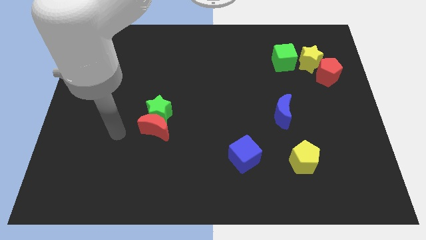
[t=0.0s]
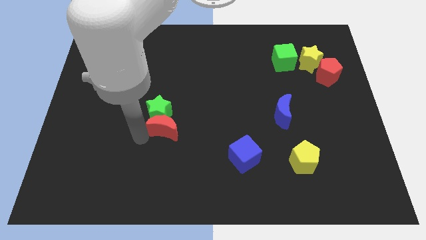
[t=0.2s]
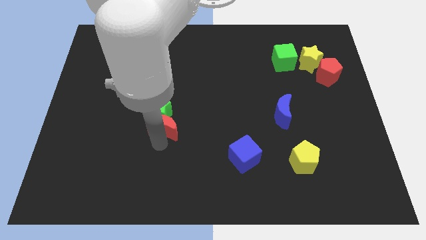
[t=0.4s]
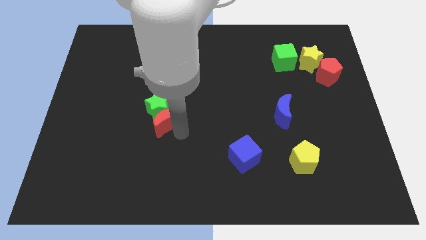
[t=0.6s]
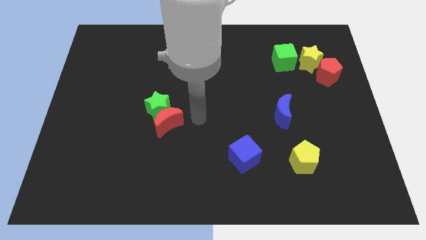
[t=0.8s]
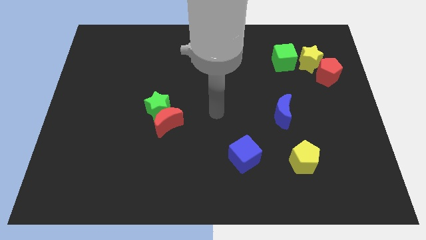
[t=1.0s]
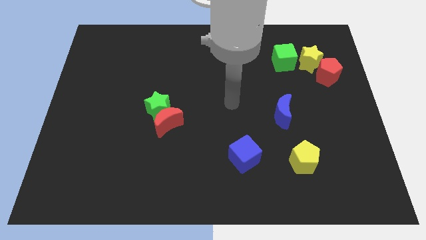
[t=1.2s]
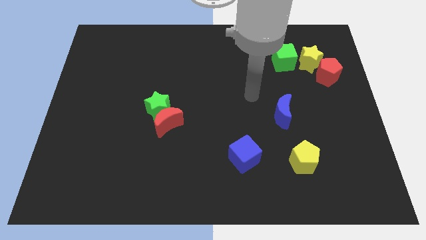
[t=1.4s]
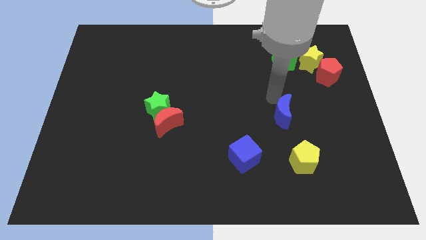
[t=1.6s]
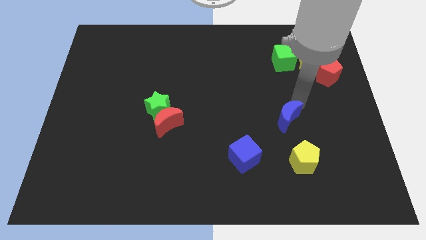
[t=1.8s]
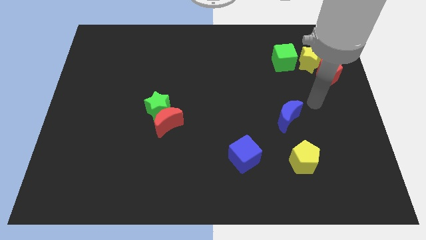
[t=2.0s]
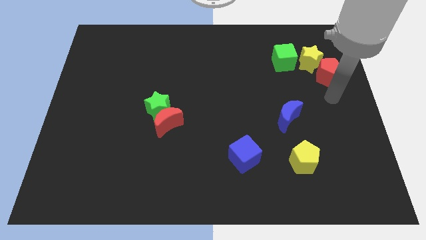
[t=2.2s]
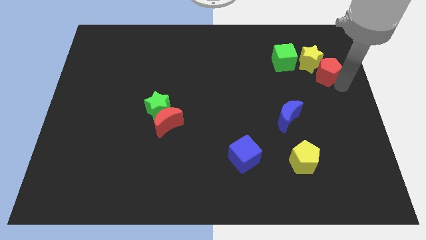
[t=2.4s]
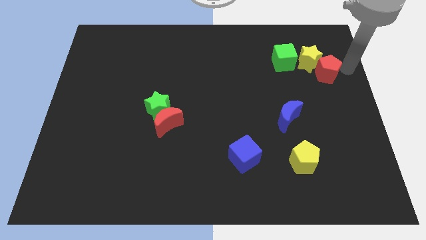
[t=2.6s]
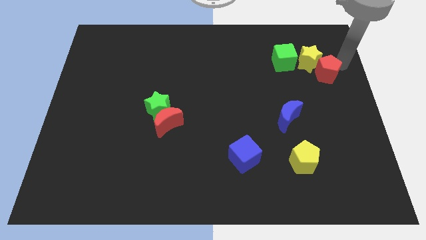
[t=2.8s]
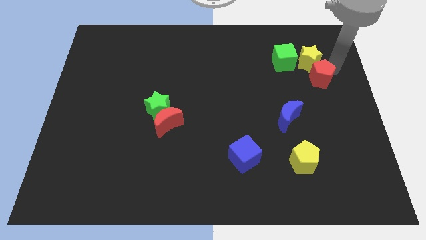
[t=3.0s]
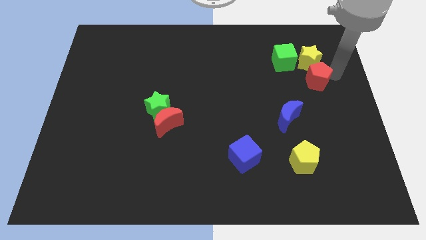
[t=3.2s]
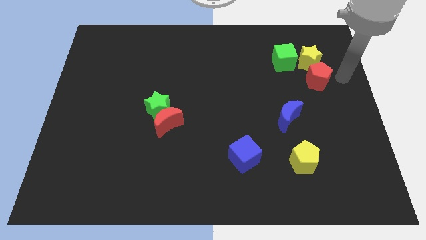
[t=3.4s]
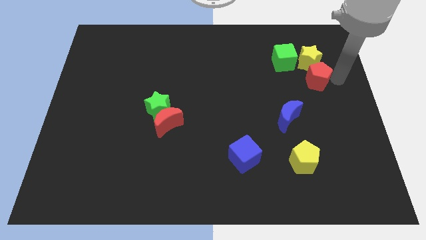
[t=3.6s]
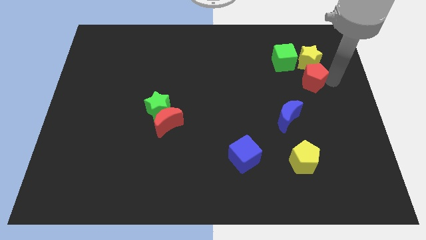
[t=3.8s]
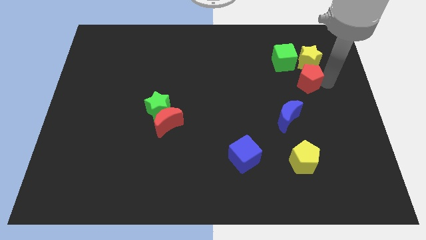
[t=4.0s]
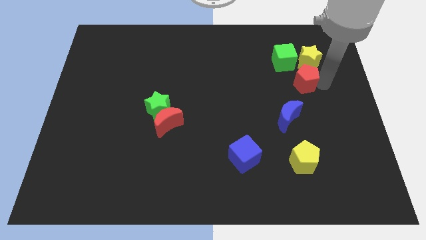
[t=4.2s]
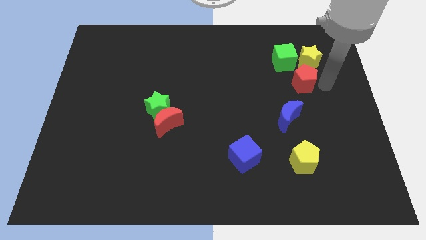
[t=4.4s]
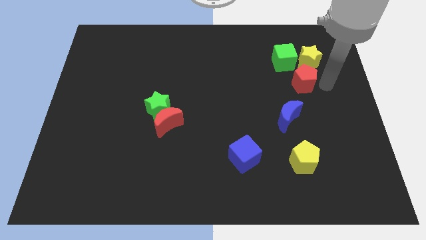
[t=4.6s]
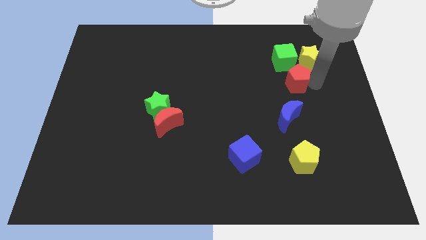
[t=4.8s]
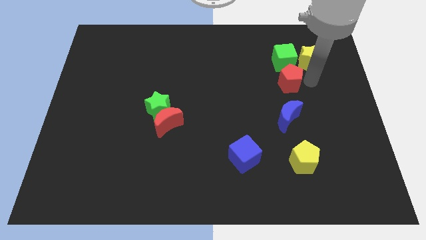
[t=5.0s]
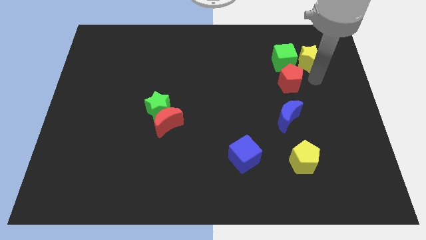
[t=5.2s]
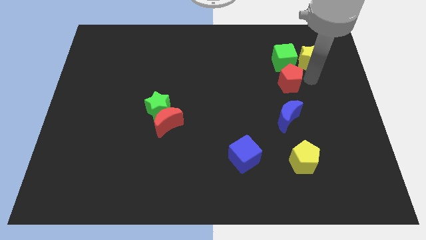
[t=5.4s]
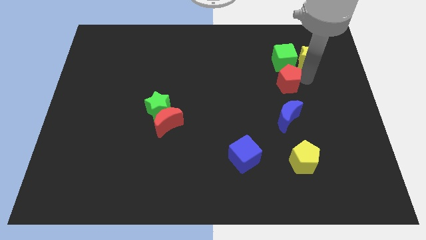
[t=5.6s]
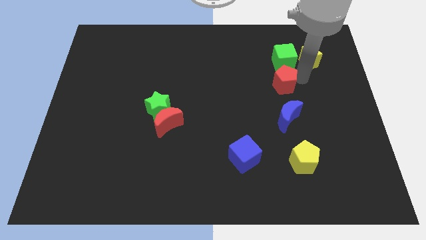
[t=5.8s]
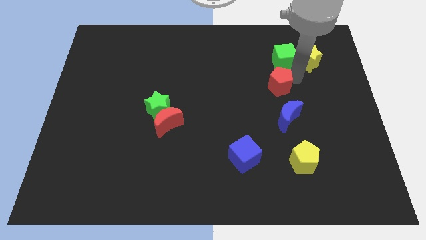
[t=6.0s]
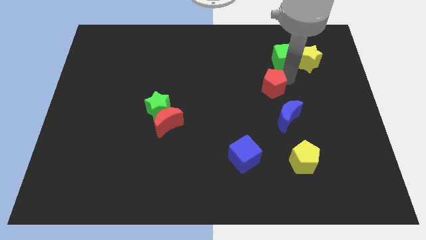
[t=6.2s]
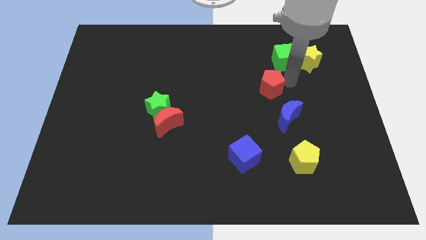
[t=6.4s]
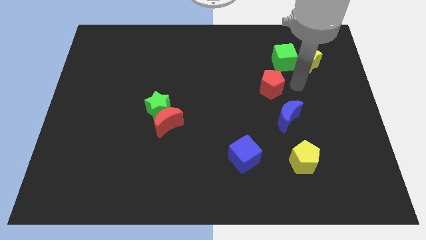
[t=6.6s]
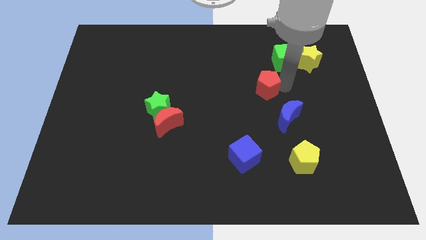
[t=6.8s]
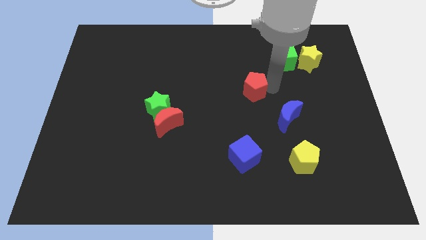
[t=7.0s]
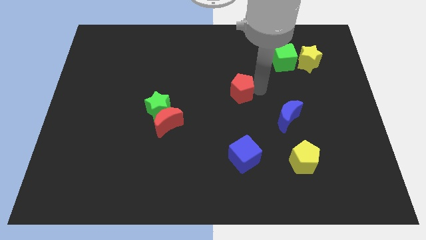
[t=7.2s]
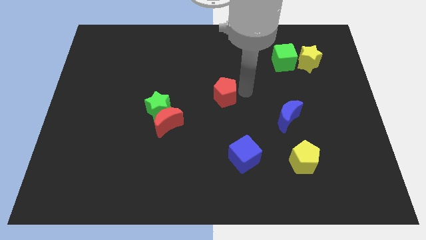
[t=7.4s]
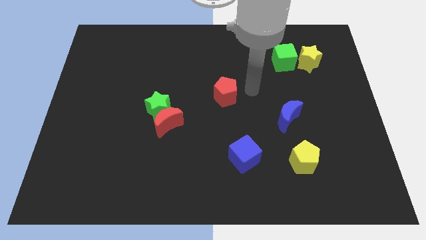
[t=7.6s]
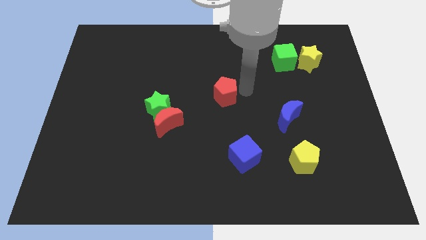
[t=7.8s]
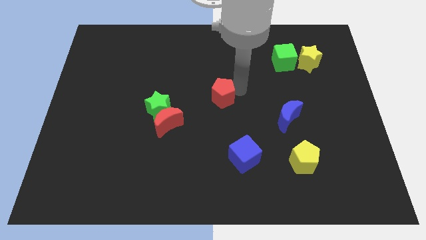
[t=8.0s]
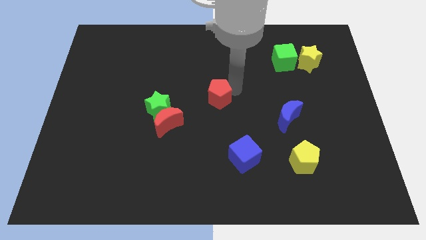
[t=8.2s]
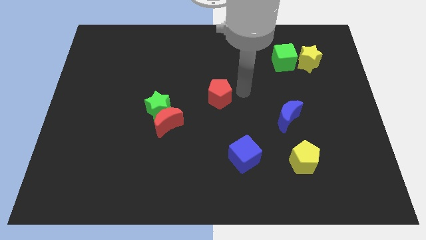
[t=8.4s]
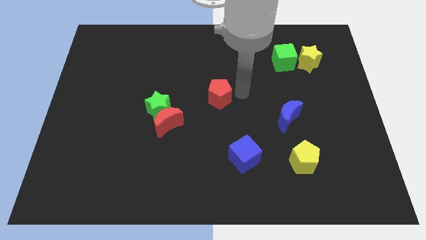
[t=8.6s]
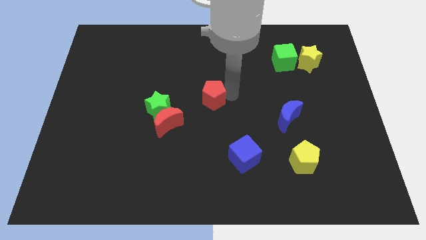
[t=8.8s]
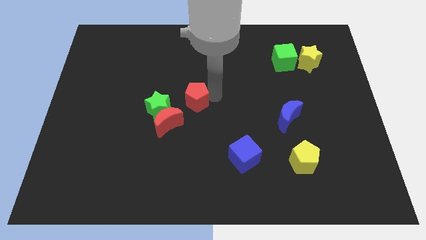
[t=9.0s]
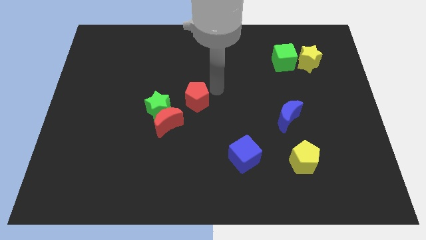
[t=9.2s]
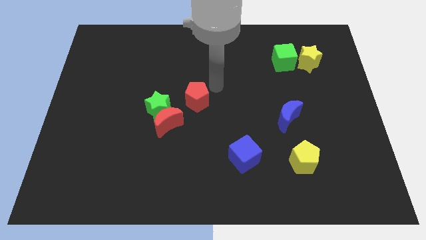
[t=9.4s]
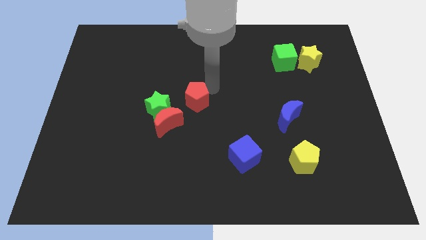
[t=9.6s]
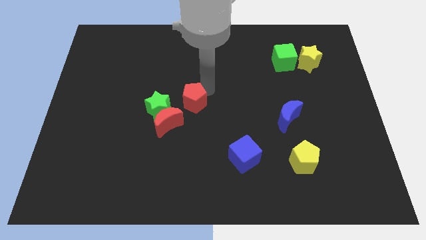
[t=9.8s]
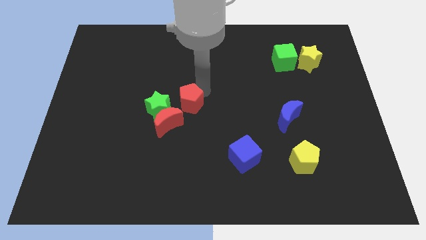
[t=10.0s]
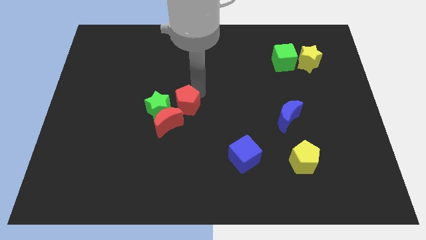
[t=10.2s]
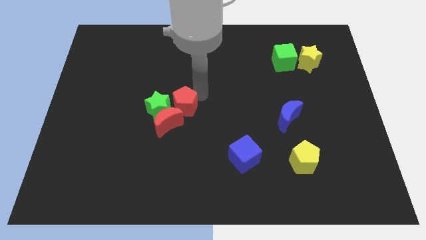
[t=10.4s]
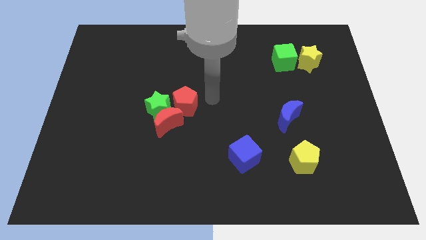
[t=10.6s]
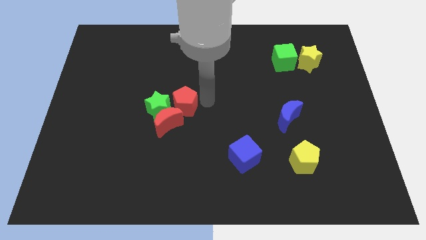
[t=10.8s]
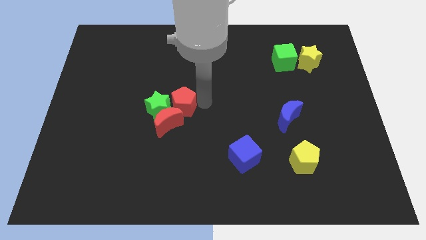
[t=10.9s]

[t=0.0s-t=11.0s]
push the red pentagon to the green star

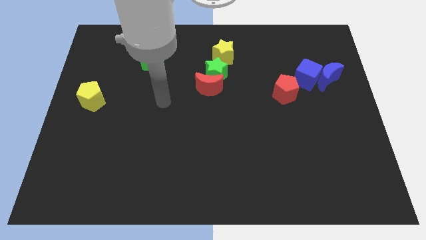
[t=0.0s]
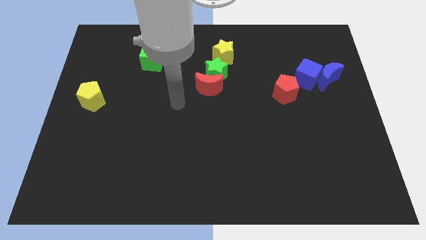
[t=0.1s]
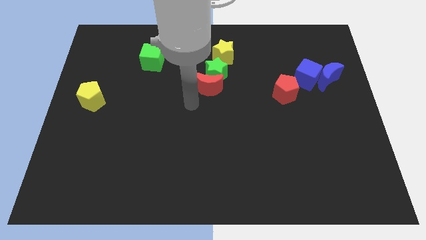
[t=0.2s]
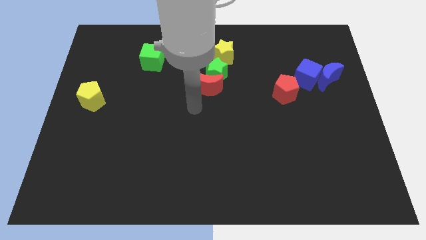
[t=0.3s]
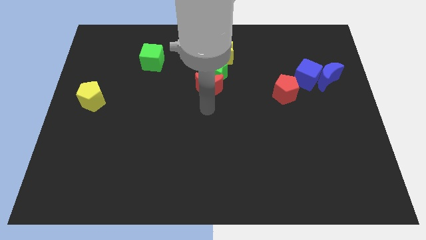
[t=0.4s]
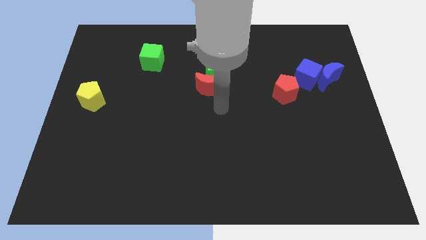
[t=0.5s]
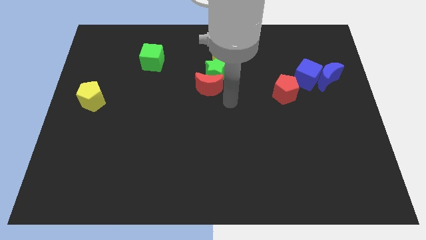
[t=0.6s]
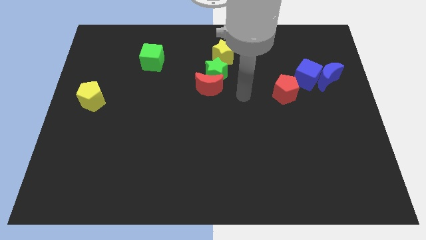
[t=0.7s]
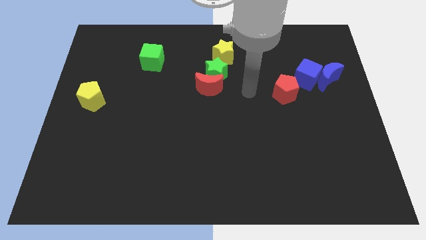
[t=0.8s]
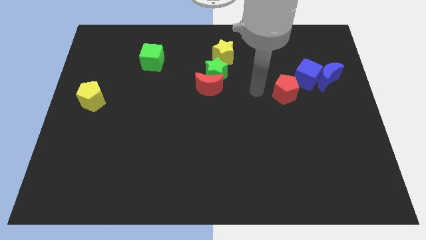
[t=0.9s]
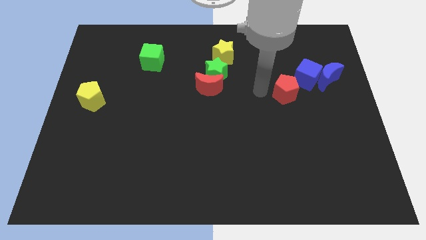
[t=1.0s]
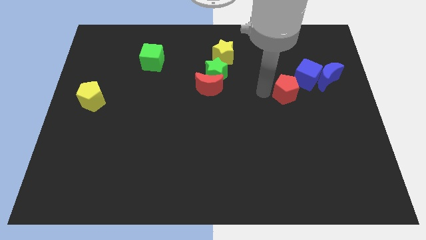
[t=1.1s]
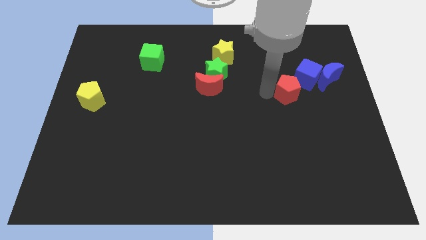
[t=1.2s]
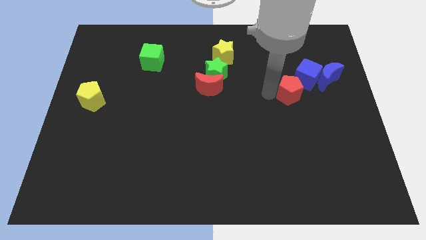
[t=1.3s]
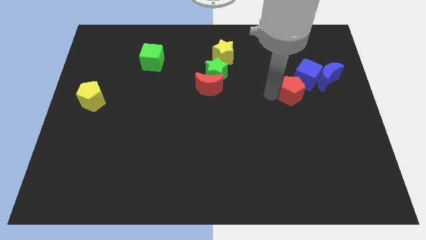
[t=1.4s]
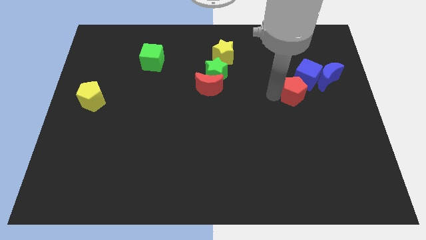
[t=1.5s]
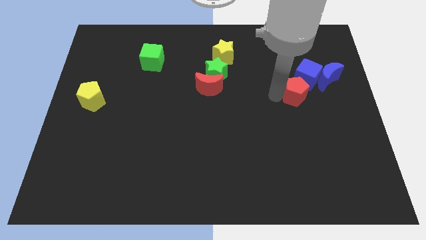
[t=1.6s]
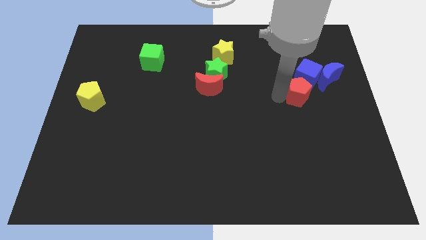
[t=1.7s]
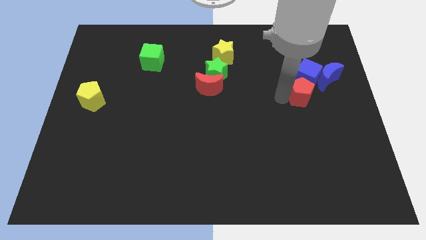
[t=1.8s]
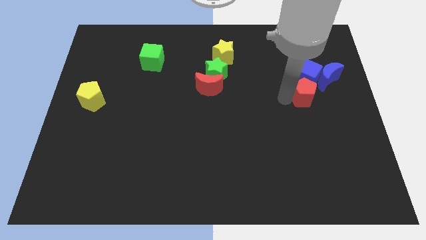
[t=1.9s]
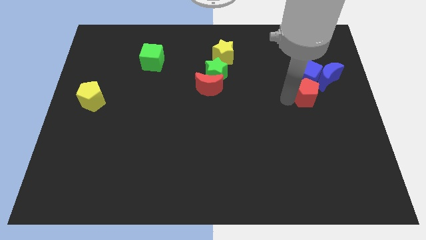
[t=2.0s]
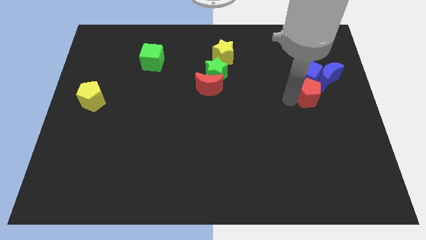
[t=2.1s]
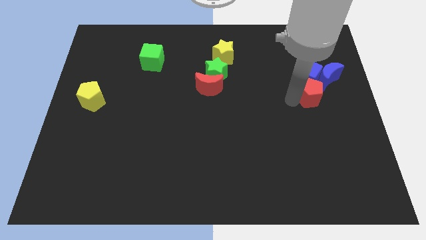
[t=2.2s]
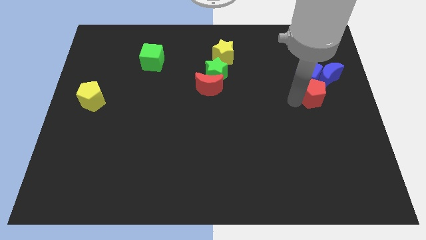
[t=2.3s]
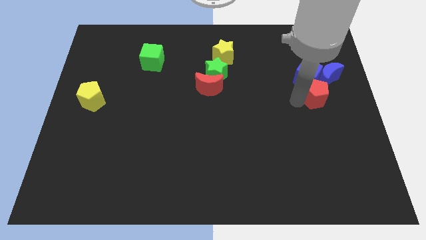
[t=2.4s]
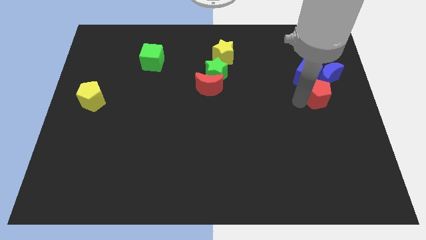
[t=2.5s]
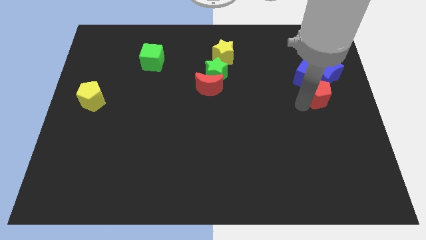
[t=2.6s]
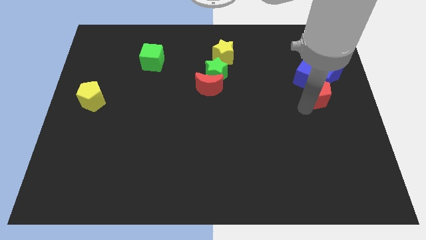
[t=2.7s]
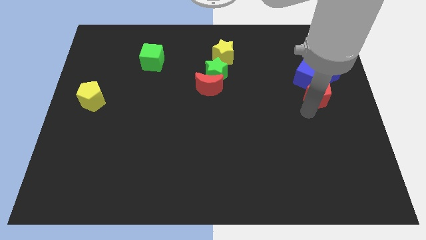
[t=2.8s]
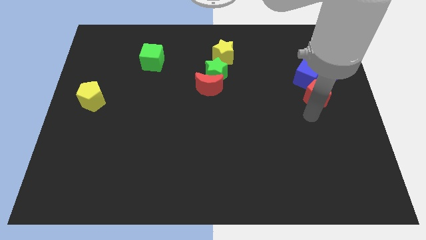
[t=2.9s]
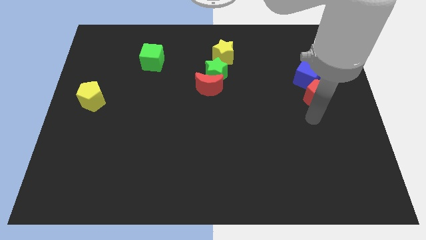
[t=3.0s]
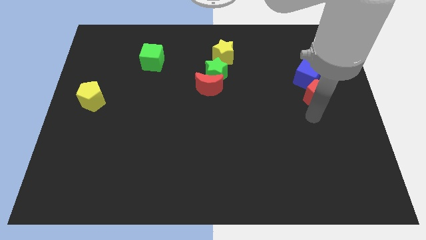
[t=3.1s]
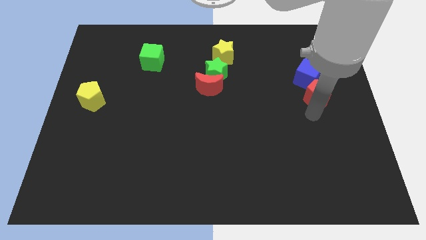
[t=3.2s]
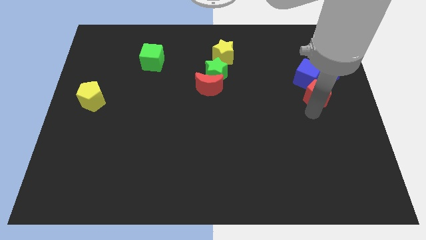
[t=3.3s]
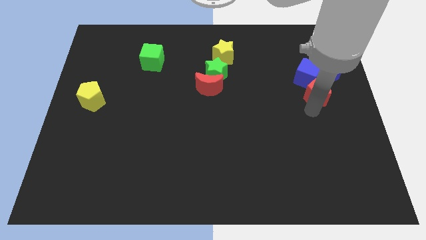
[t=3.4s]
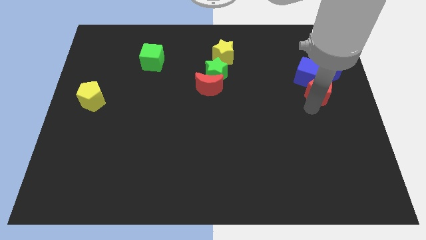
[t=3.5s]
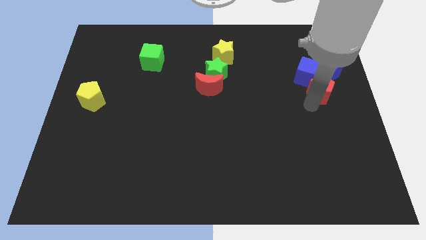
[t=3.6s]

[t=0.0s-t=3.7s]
move the red pentagon close to the blue moon
